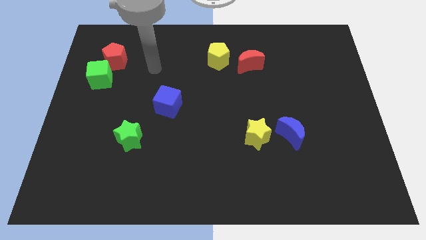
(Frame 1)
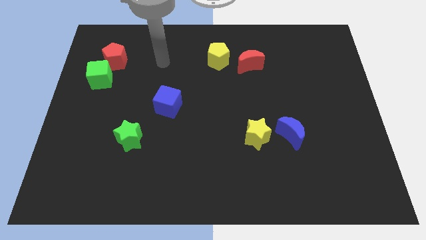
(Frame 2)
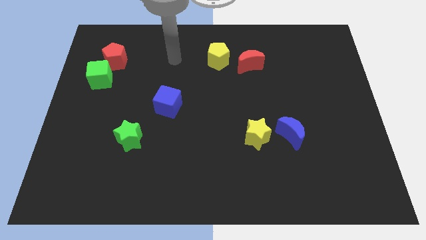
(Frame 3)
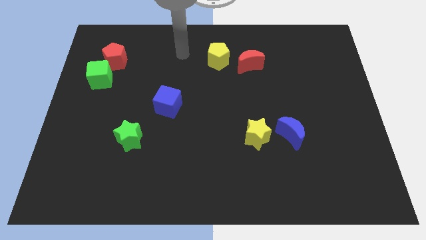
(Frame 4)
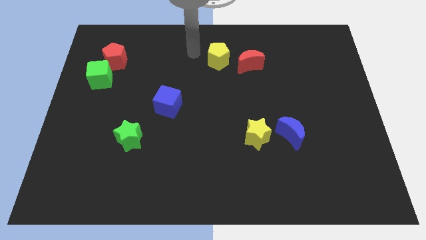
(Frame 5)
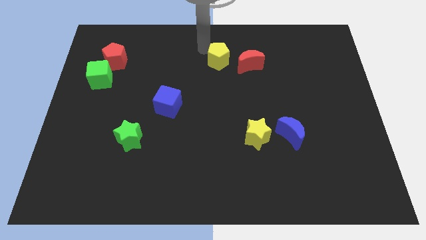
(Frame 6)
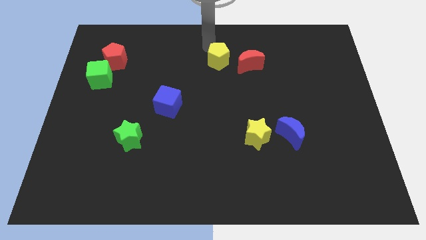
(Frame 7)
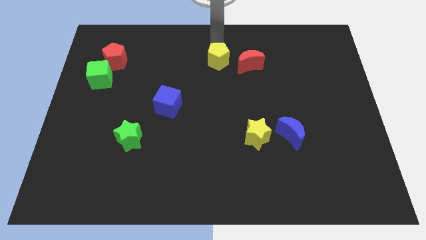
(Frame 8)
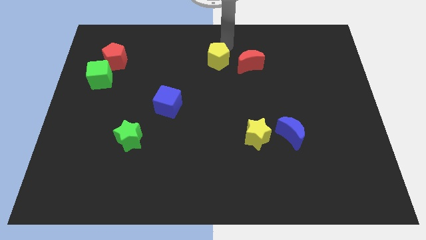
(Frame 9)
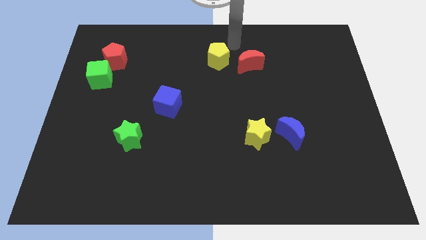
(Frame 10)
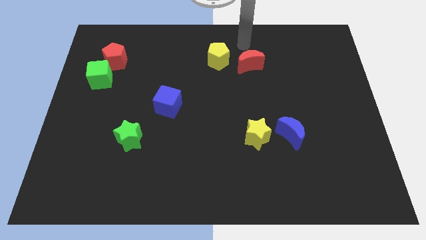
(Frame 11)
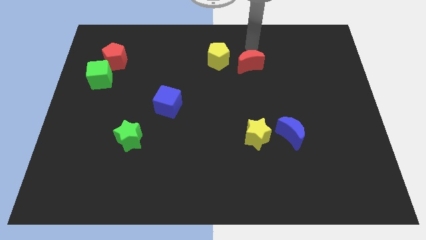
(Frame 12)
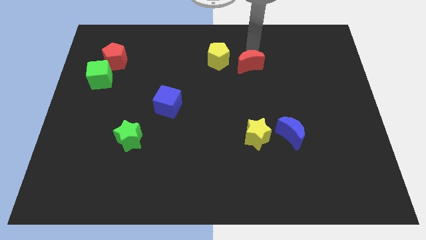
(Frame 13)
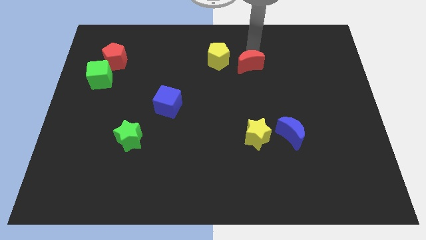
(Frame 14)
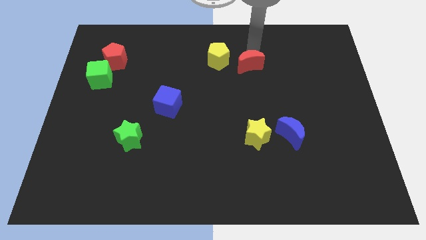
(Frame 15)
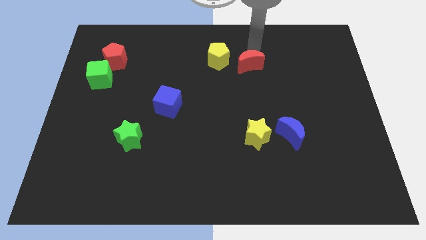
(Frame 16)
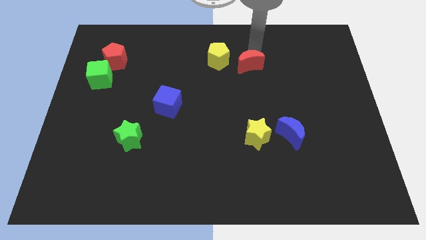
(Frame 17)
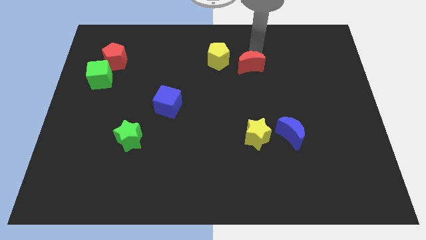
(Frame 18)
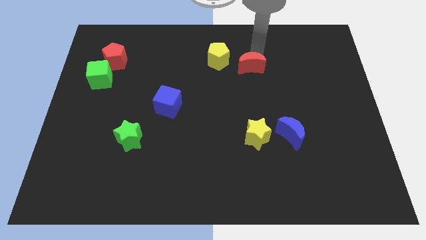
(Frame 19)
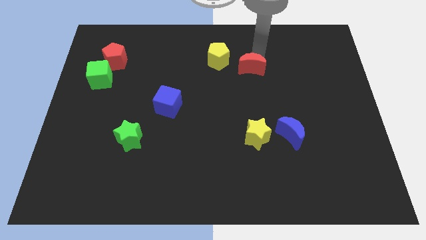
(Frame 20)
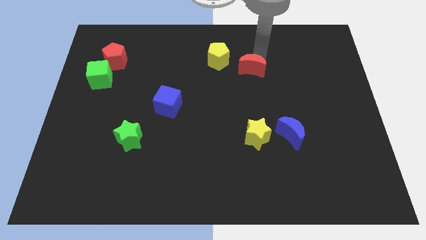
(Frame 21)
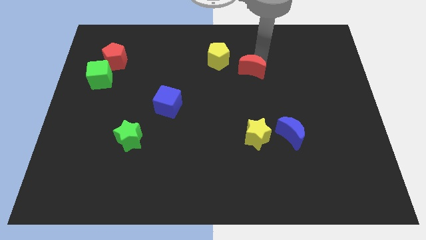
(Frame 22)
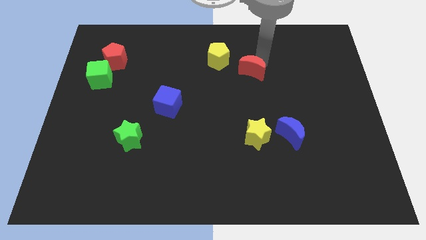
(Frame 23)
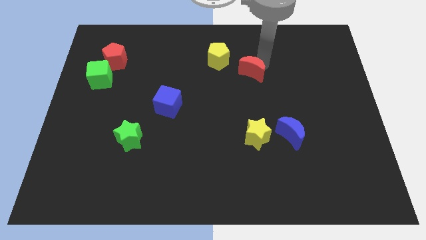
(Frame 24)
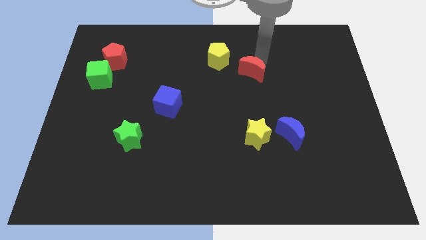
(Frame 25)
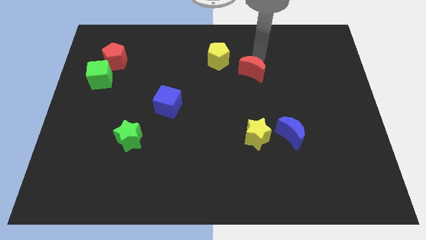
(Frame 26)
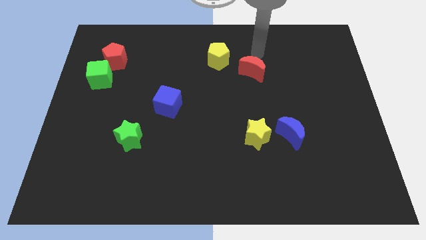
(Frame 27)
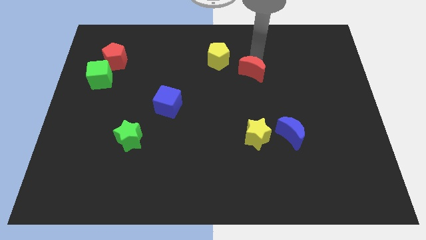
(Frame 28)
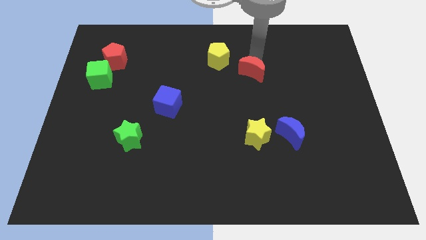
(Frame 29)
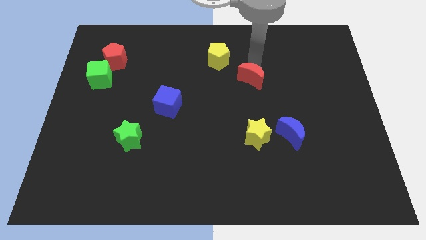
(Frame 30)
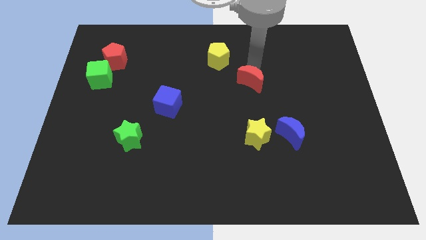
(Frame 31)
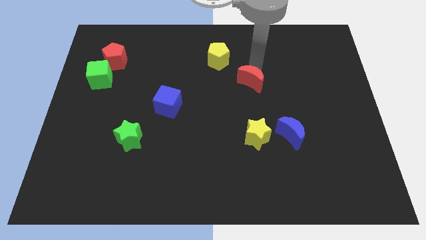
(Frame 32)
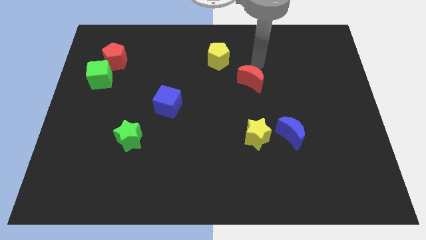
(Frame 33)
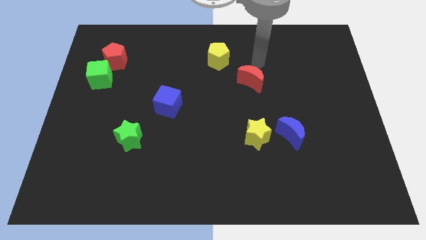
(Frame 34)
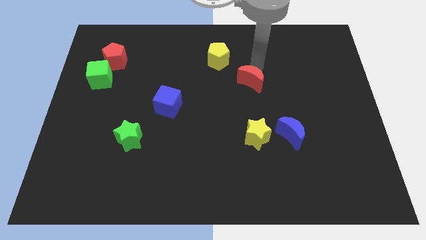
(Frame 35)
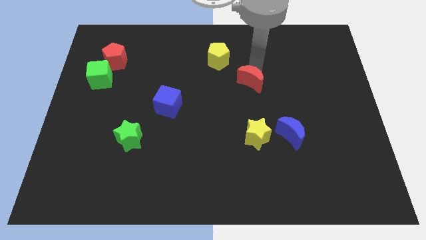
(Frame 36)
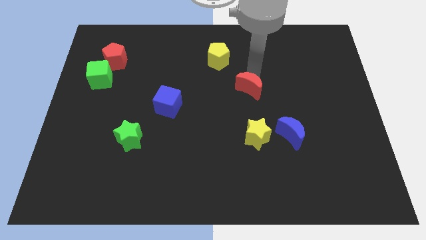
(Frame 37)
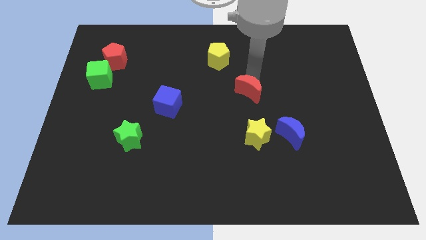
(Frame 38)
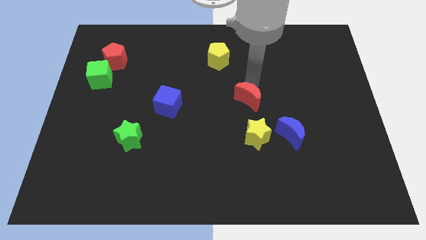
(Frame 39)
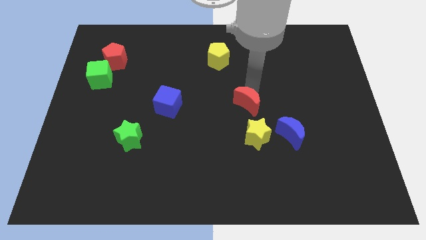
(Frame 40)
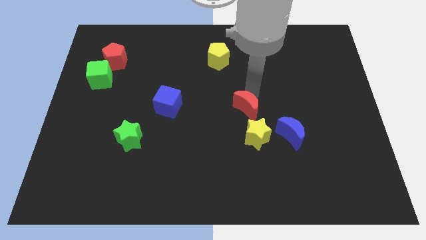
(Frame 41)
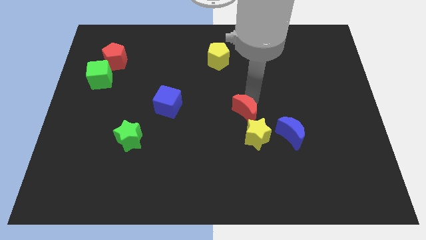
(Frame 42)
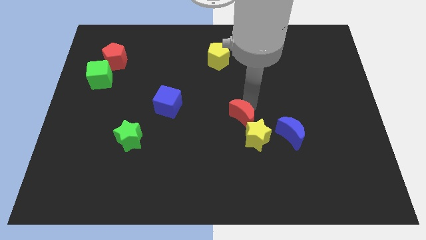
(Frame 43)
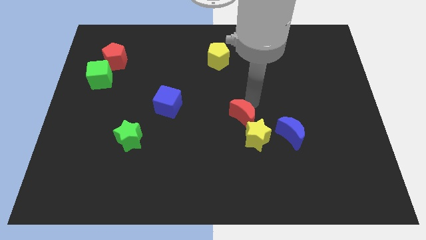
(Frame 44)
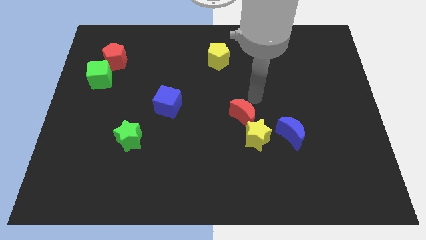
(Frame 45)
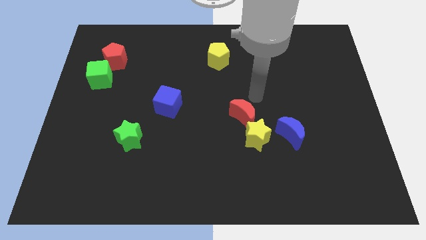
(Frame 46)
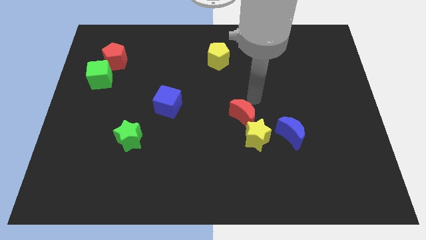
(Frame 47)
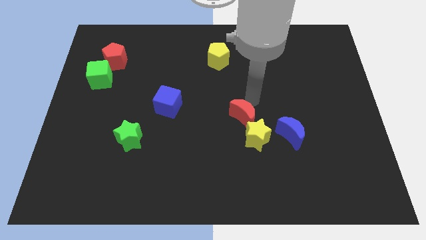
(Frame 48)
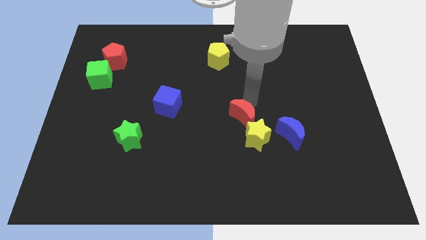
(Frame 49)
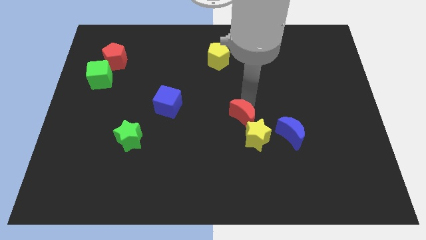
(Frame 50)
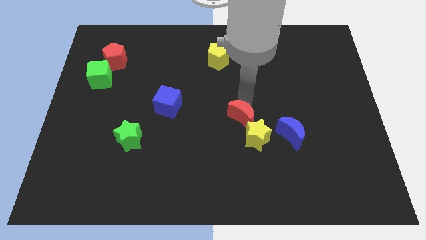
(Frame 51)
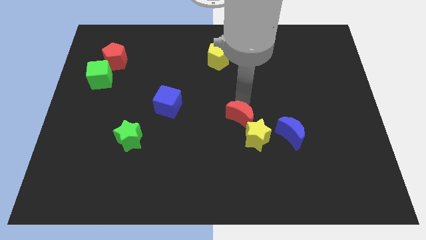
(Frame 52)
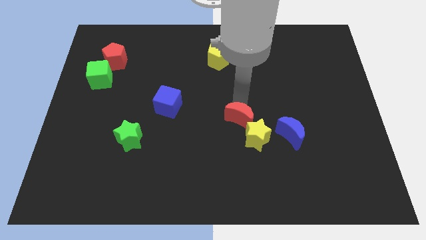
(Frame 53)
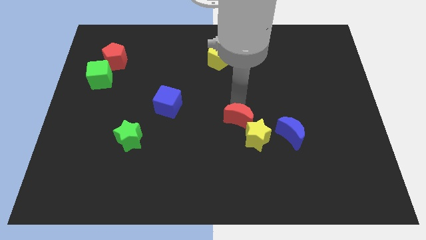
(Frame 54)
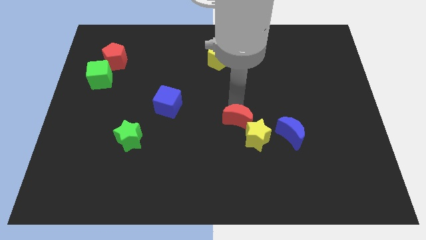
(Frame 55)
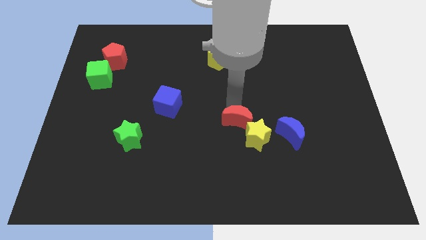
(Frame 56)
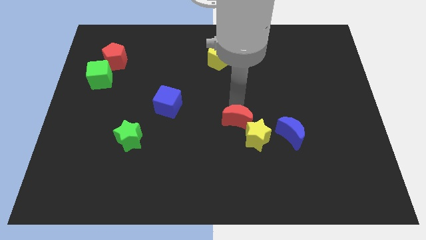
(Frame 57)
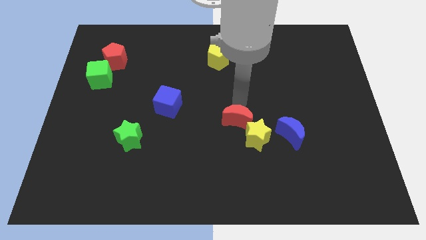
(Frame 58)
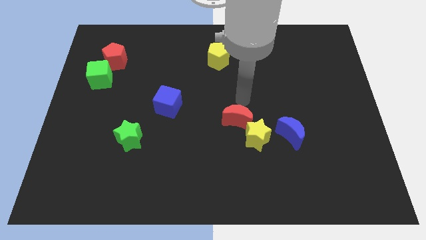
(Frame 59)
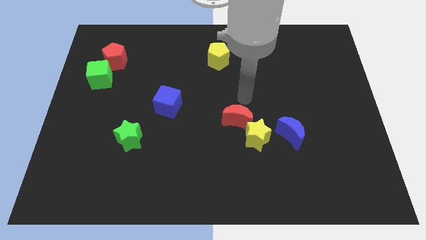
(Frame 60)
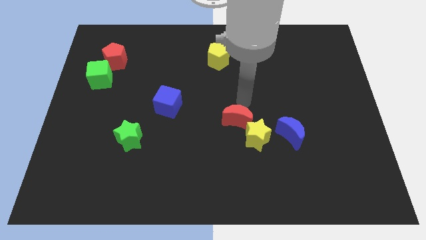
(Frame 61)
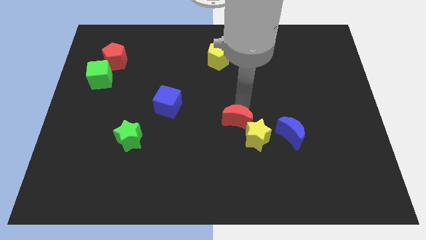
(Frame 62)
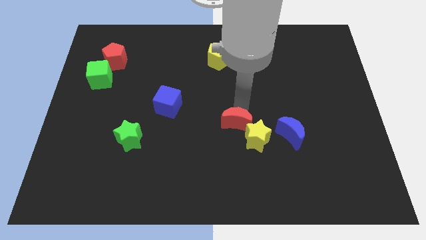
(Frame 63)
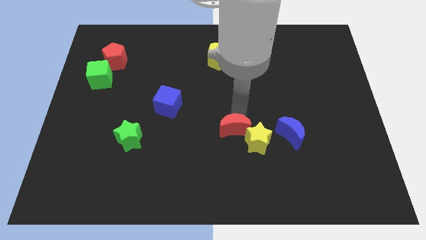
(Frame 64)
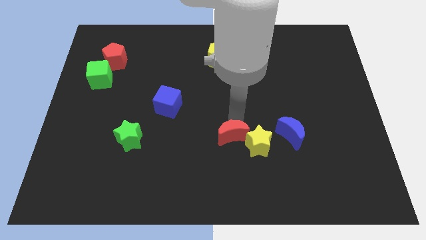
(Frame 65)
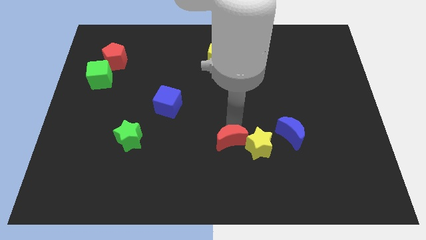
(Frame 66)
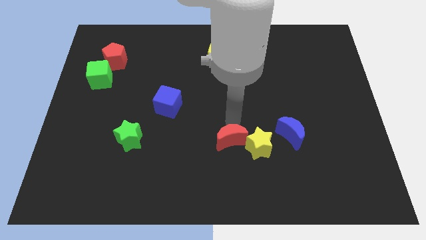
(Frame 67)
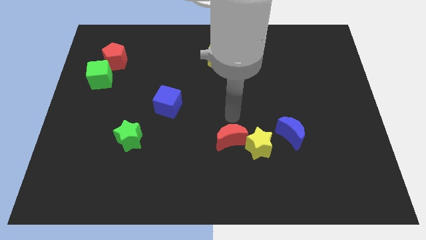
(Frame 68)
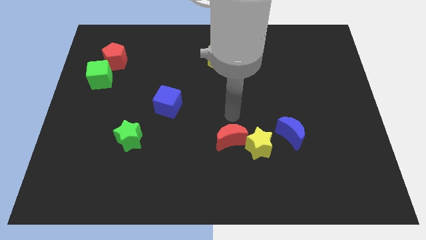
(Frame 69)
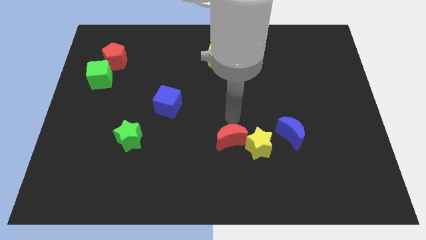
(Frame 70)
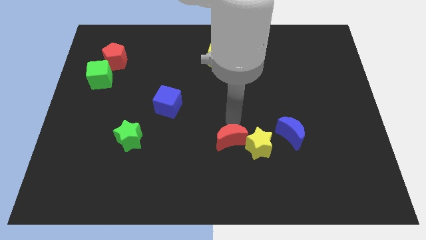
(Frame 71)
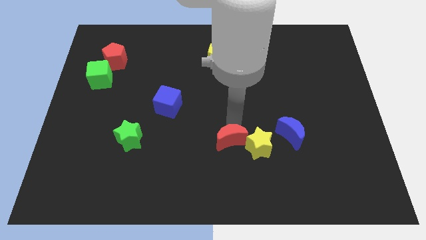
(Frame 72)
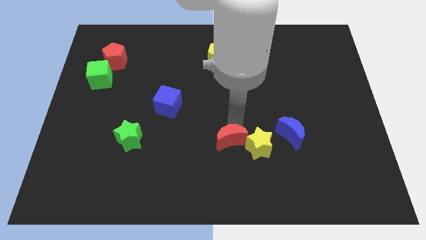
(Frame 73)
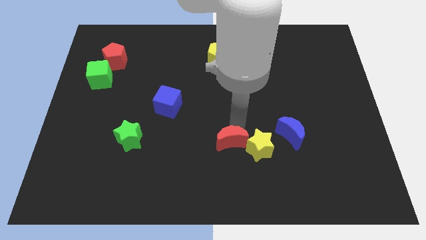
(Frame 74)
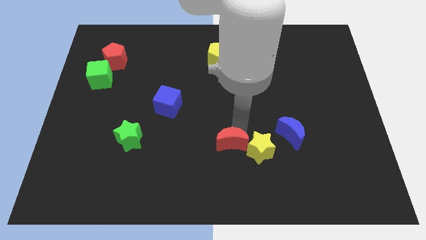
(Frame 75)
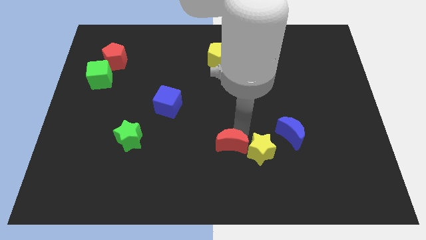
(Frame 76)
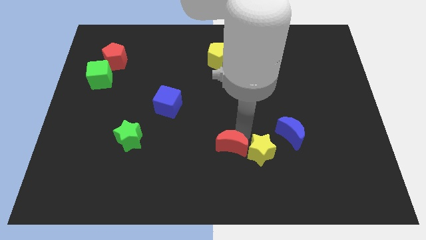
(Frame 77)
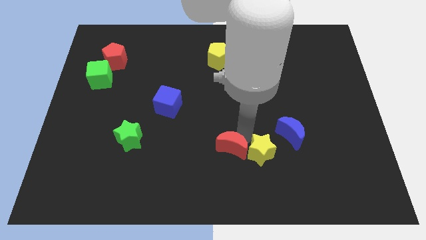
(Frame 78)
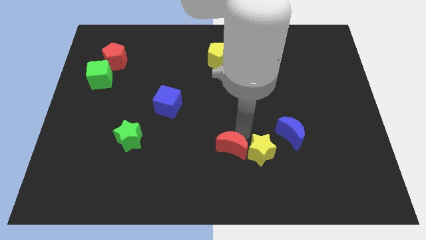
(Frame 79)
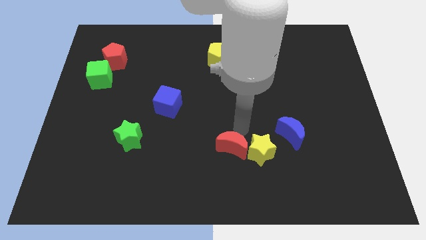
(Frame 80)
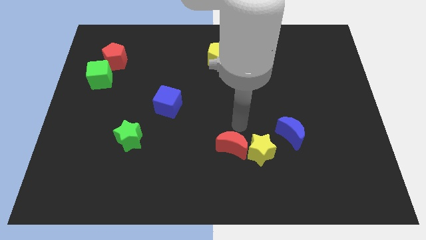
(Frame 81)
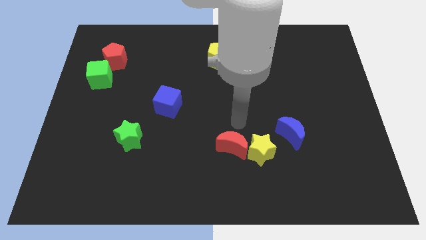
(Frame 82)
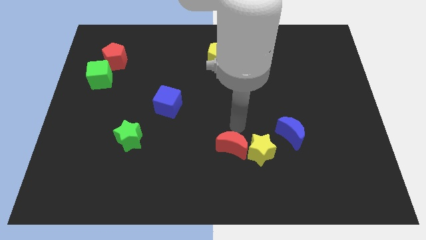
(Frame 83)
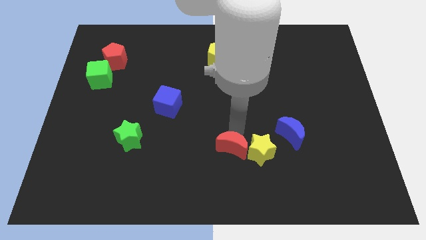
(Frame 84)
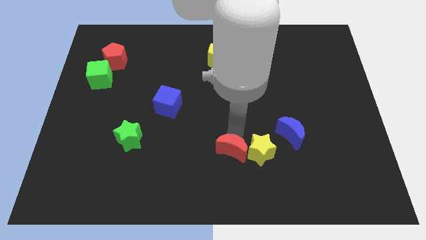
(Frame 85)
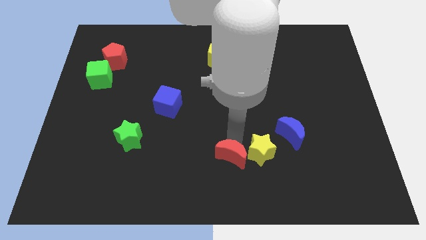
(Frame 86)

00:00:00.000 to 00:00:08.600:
push the red moon to the bottom side
